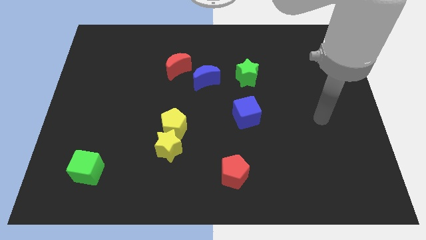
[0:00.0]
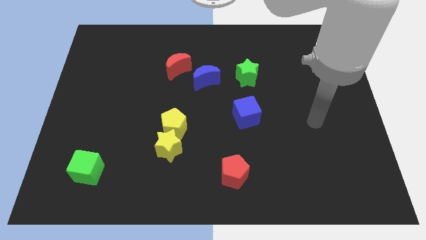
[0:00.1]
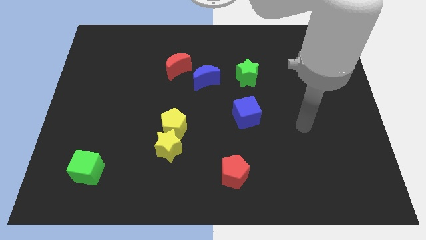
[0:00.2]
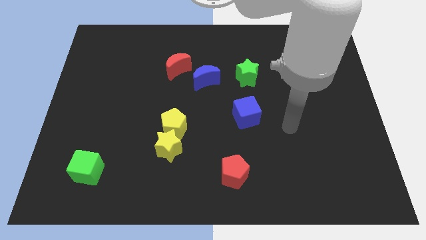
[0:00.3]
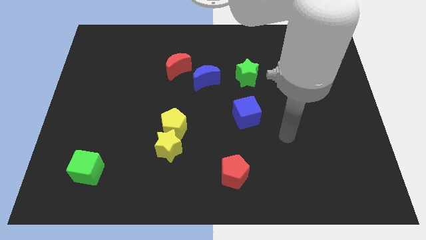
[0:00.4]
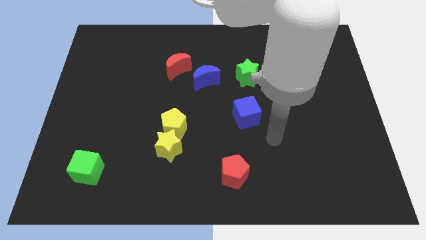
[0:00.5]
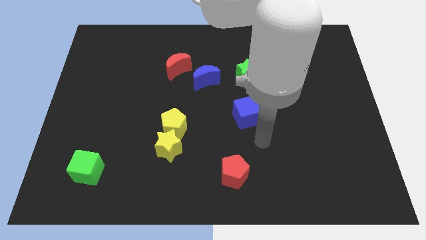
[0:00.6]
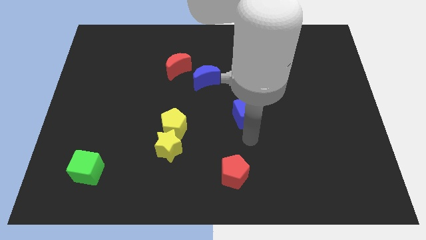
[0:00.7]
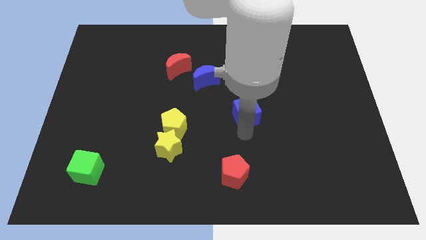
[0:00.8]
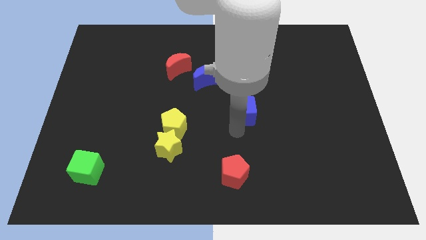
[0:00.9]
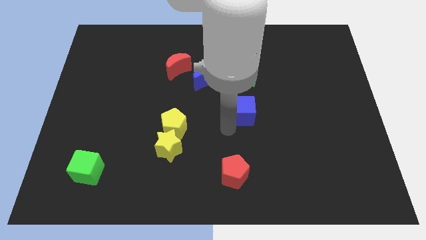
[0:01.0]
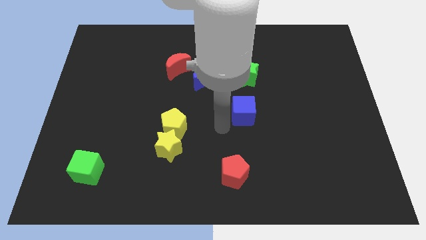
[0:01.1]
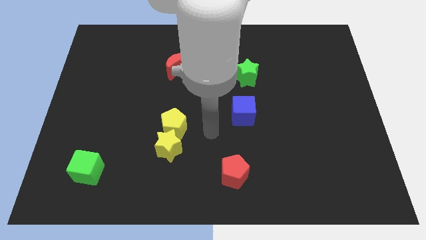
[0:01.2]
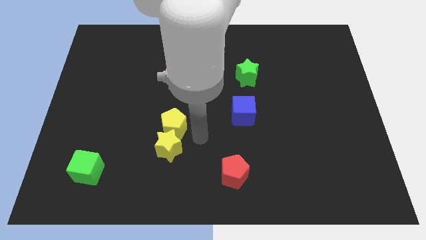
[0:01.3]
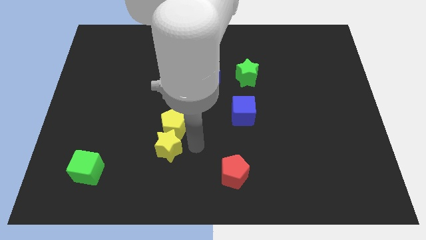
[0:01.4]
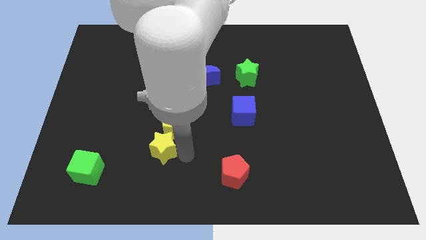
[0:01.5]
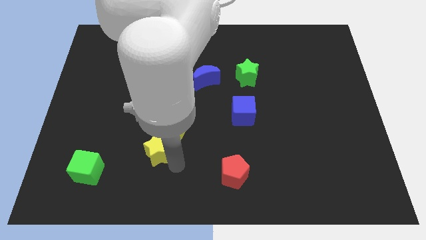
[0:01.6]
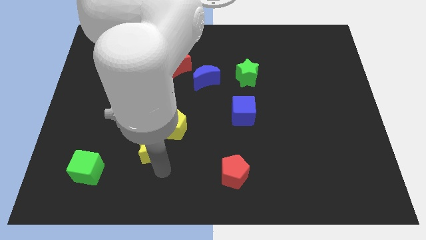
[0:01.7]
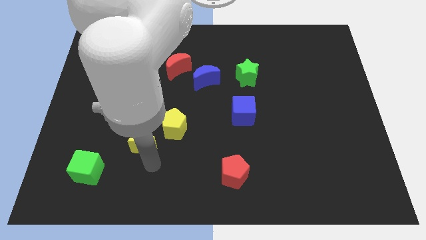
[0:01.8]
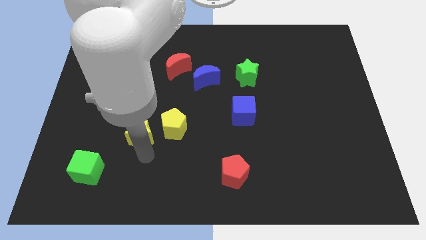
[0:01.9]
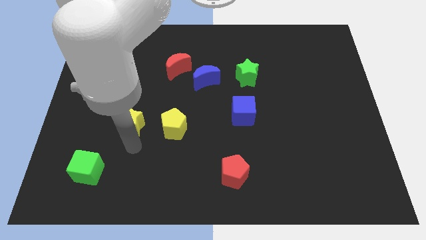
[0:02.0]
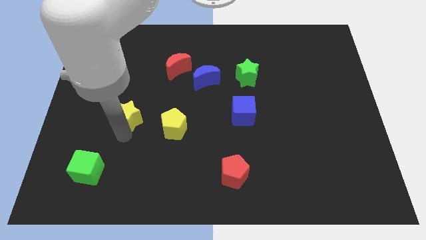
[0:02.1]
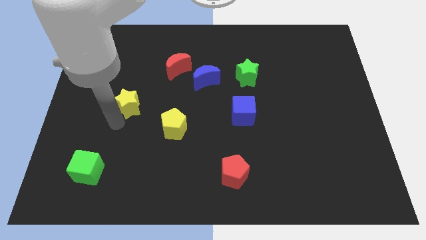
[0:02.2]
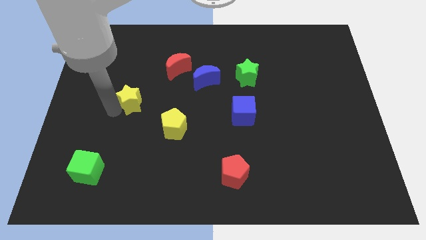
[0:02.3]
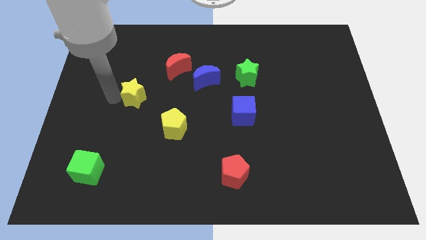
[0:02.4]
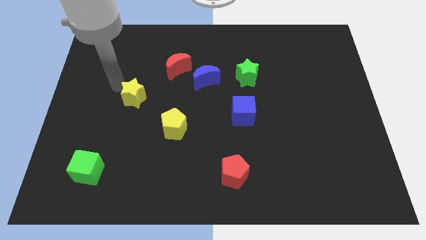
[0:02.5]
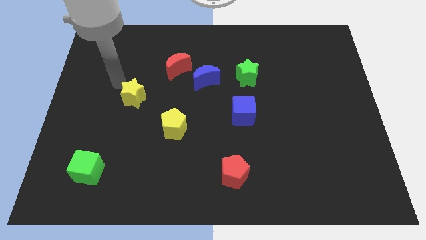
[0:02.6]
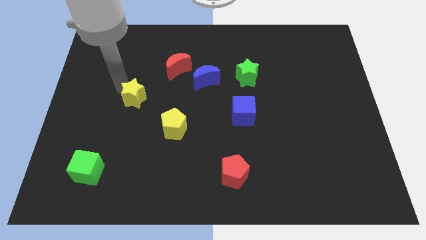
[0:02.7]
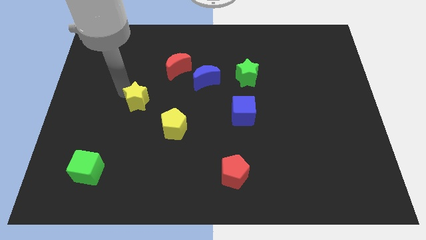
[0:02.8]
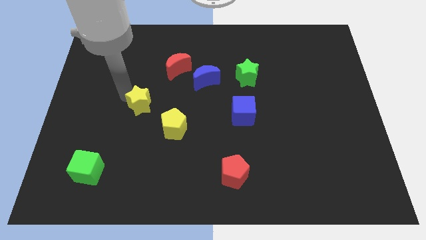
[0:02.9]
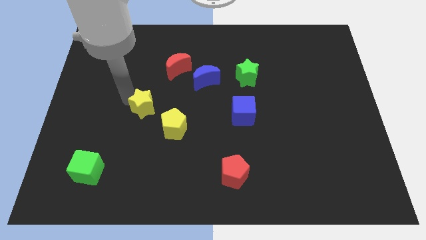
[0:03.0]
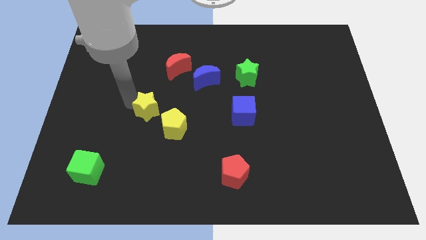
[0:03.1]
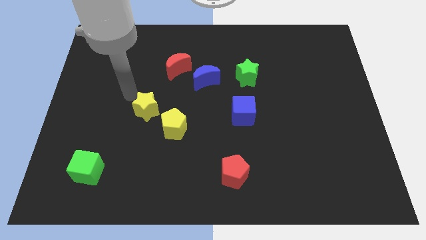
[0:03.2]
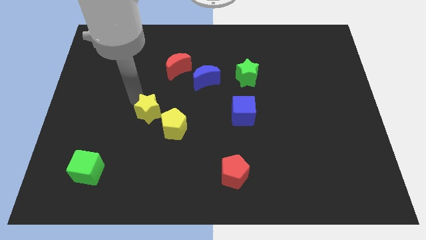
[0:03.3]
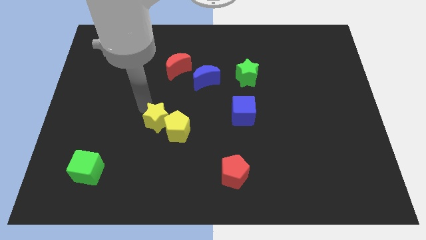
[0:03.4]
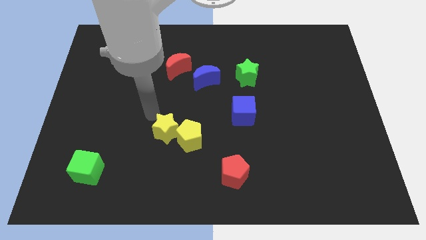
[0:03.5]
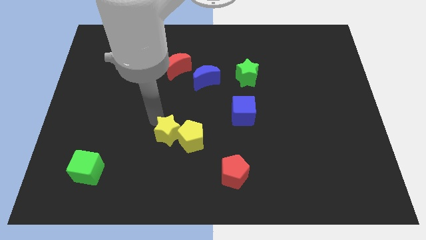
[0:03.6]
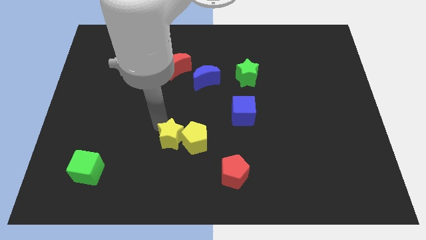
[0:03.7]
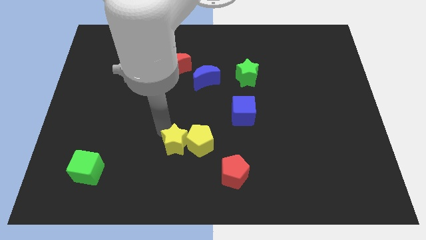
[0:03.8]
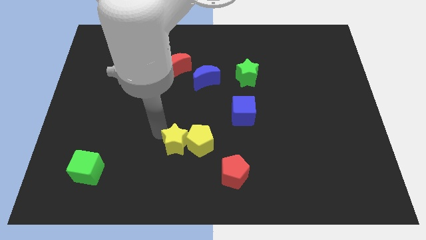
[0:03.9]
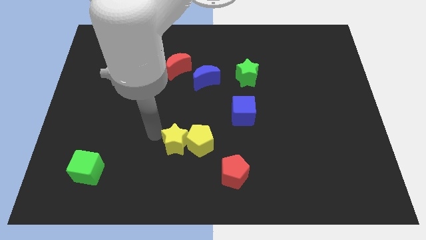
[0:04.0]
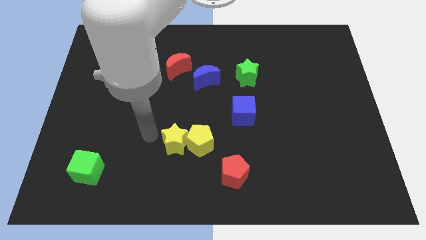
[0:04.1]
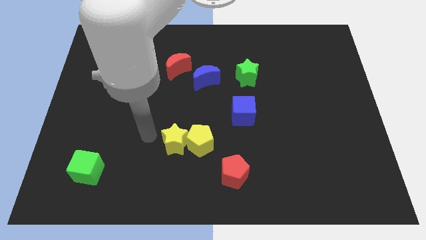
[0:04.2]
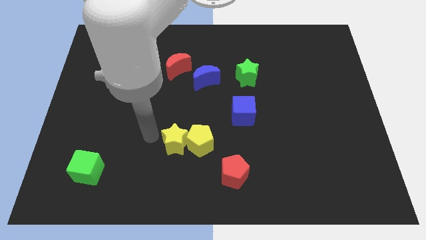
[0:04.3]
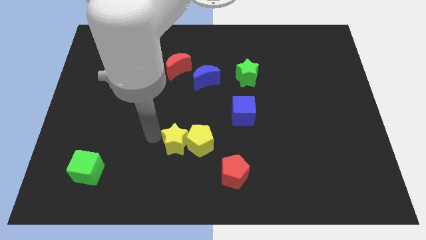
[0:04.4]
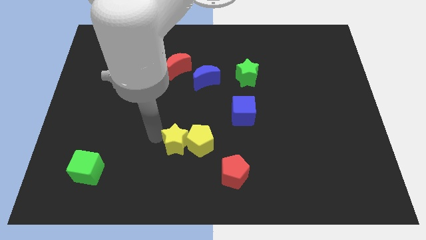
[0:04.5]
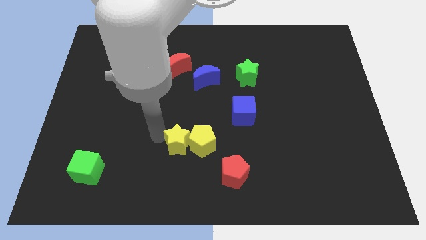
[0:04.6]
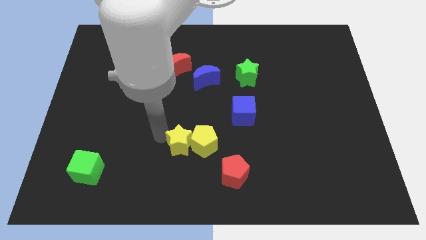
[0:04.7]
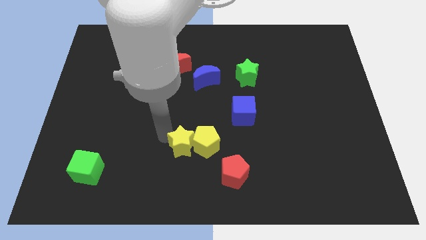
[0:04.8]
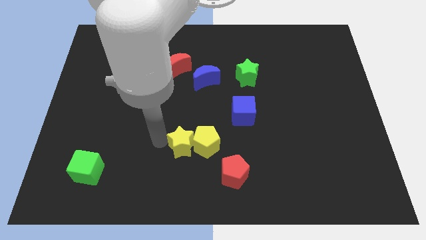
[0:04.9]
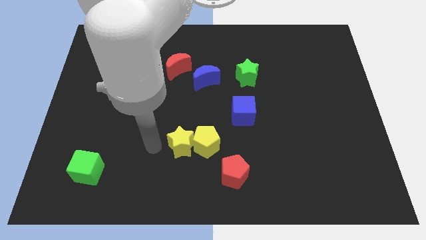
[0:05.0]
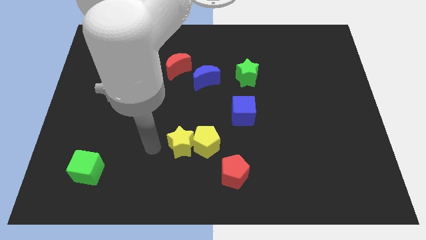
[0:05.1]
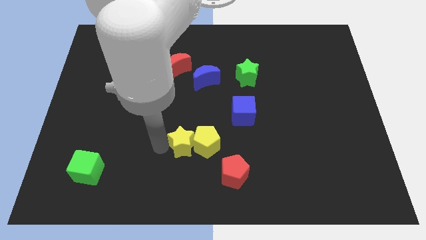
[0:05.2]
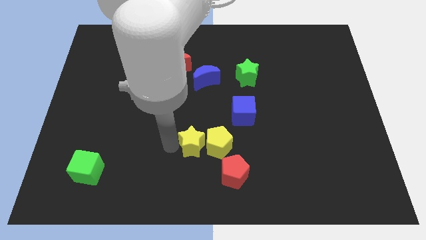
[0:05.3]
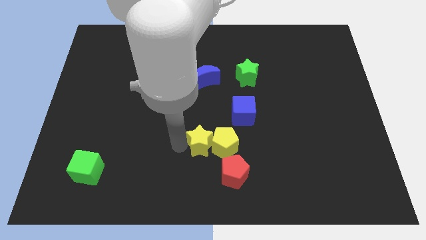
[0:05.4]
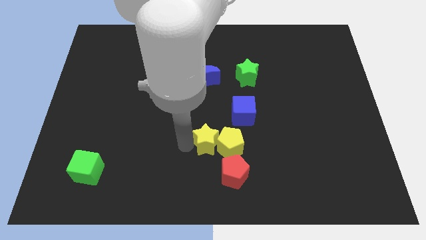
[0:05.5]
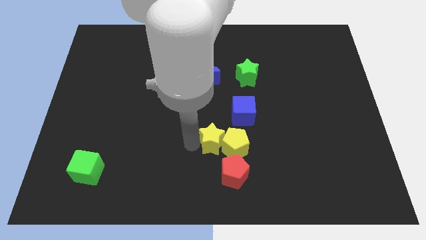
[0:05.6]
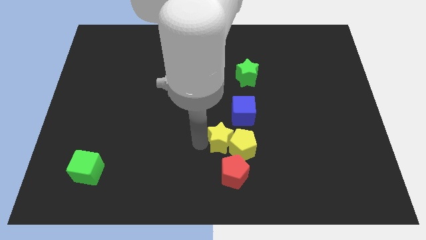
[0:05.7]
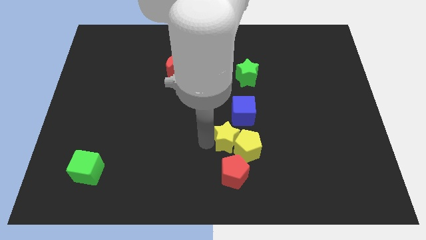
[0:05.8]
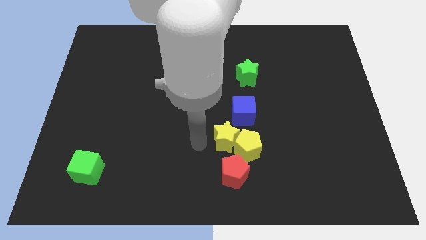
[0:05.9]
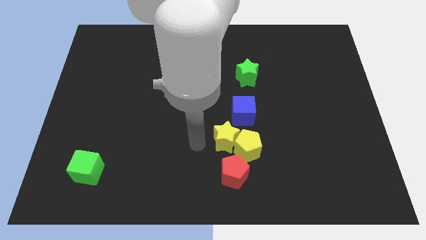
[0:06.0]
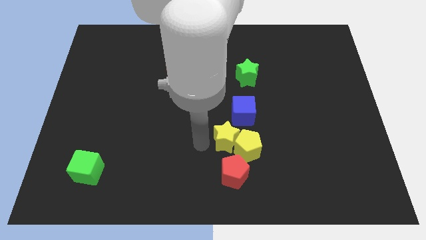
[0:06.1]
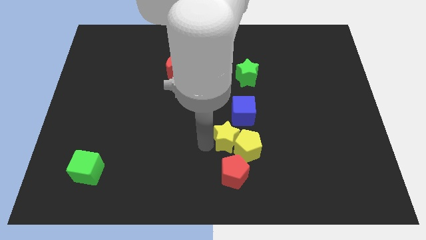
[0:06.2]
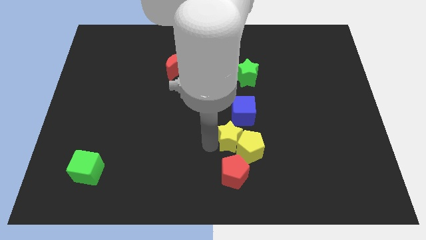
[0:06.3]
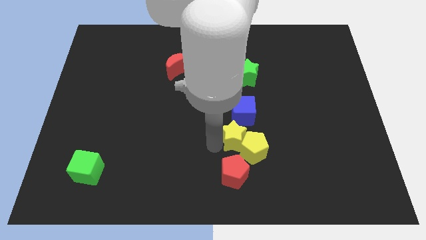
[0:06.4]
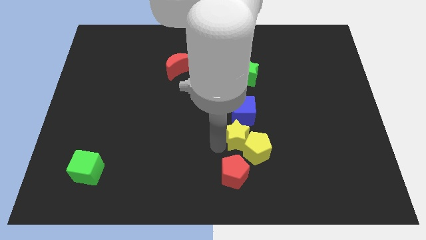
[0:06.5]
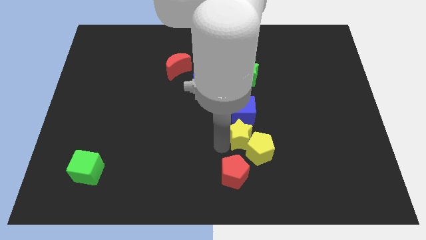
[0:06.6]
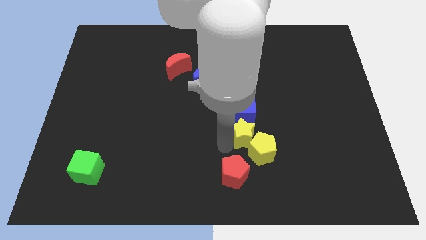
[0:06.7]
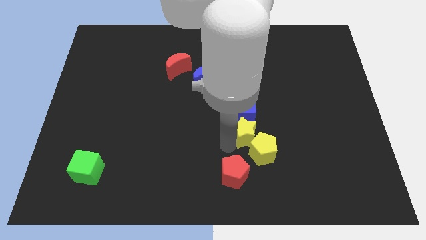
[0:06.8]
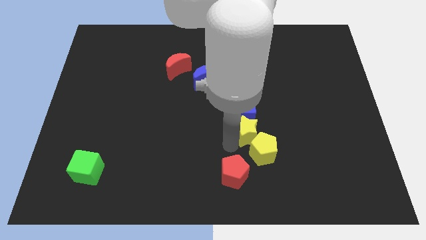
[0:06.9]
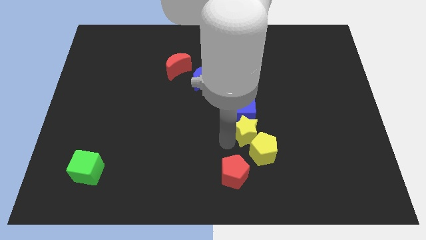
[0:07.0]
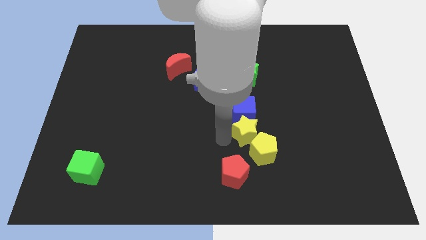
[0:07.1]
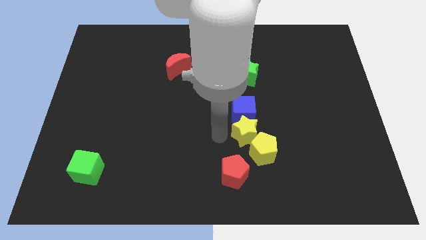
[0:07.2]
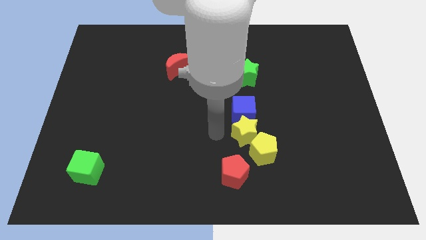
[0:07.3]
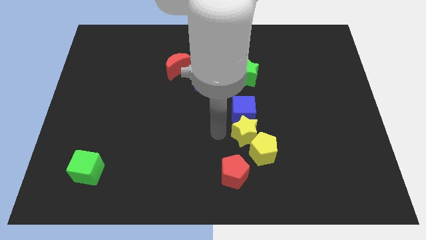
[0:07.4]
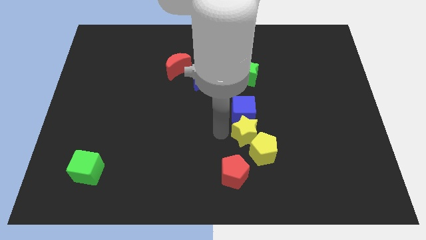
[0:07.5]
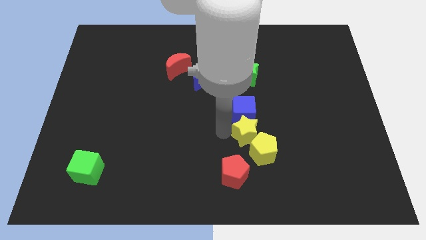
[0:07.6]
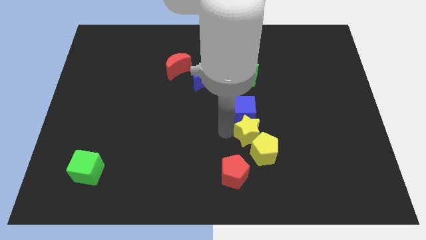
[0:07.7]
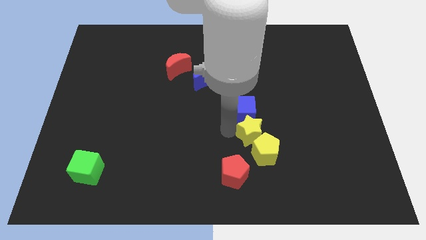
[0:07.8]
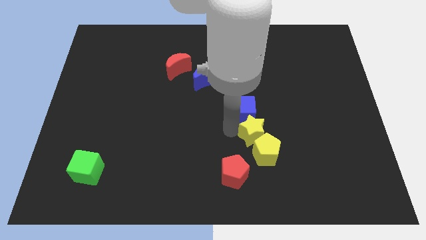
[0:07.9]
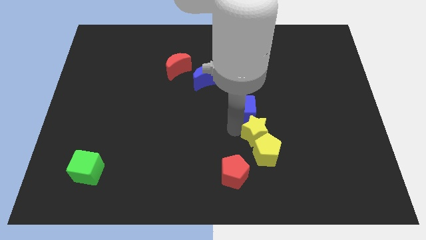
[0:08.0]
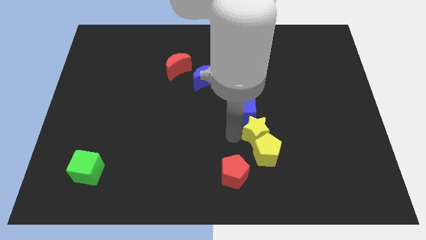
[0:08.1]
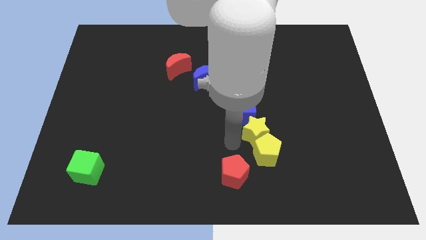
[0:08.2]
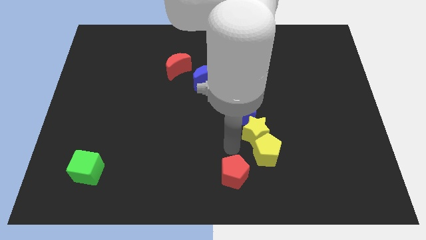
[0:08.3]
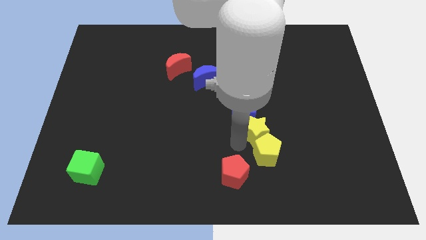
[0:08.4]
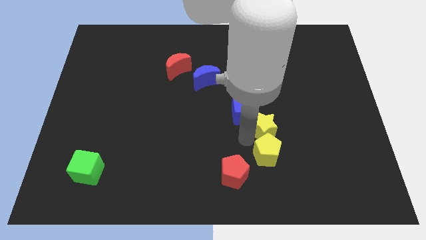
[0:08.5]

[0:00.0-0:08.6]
put the yellow star to the right side of the blue cube
